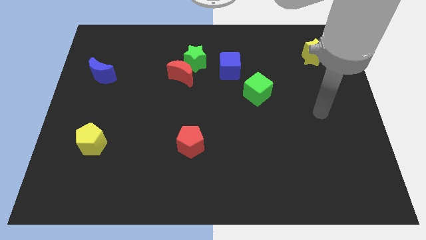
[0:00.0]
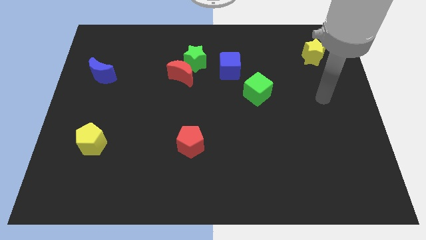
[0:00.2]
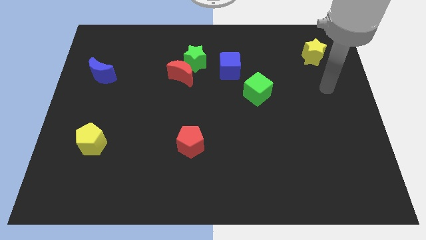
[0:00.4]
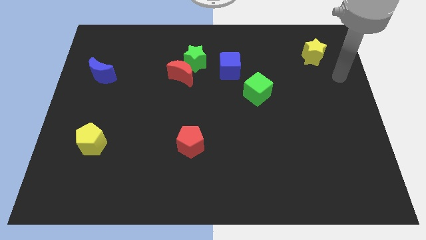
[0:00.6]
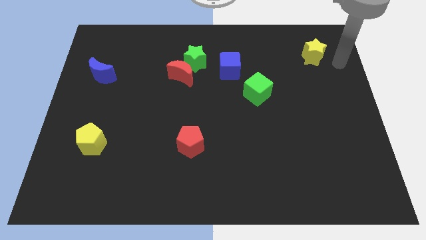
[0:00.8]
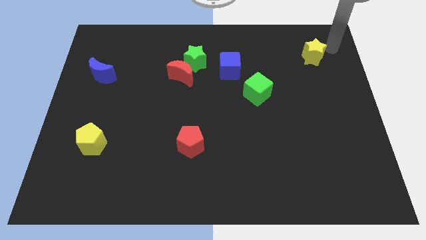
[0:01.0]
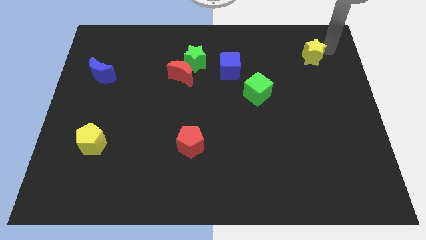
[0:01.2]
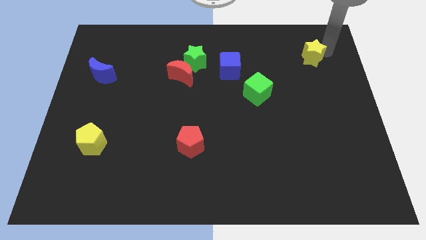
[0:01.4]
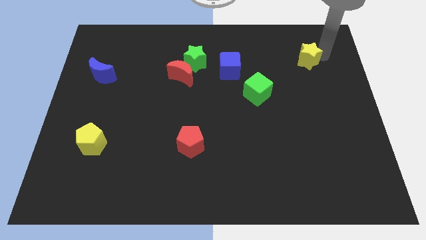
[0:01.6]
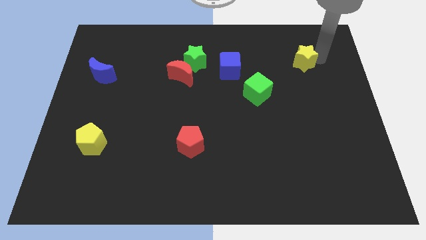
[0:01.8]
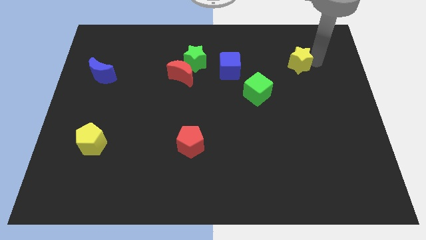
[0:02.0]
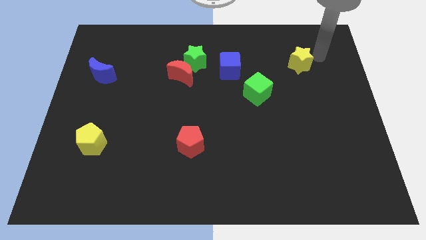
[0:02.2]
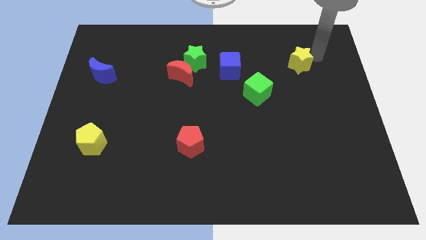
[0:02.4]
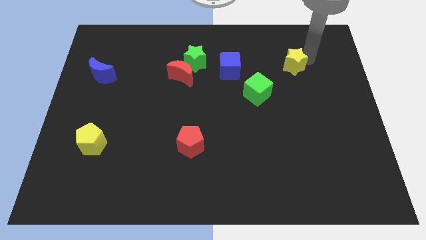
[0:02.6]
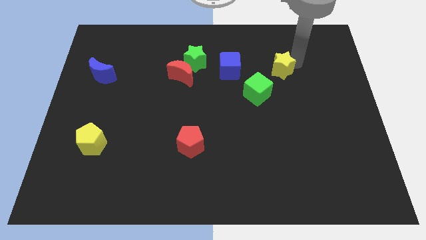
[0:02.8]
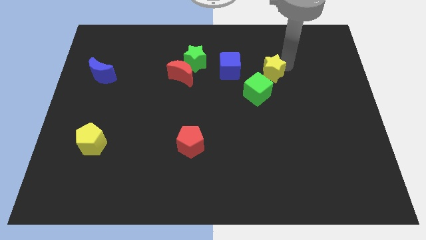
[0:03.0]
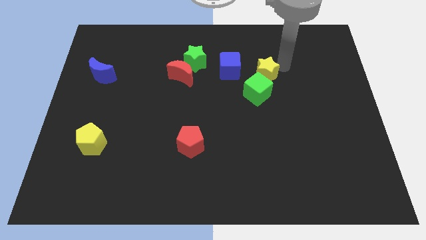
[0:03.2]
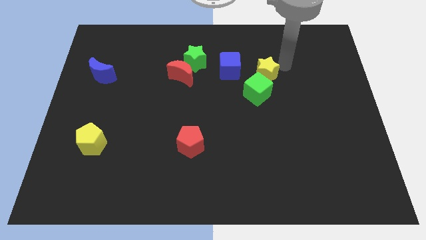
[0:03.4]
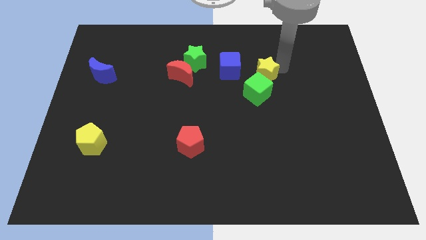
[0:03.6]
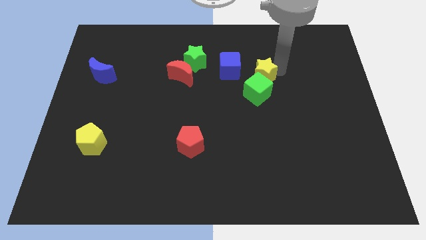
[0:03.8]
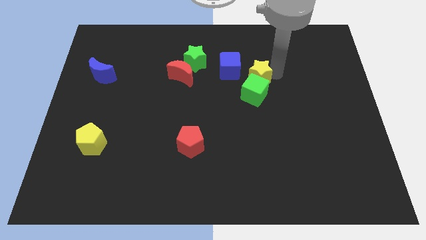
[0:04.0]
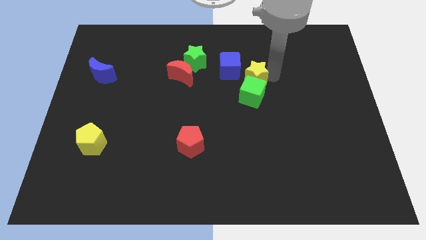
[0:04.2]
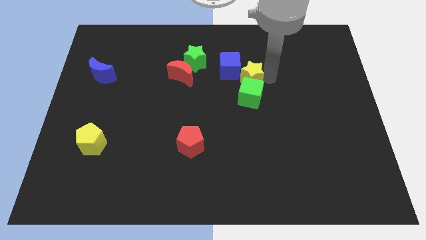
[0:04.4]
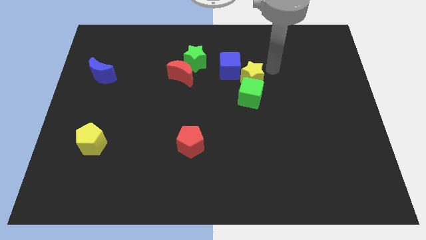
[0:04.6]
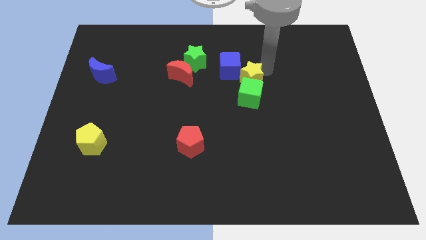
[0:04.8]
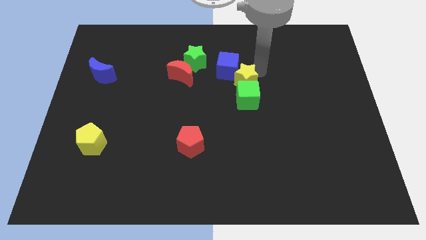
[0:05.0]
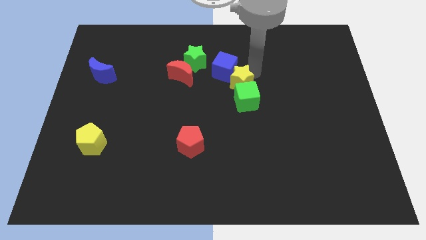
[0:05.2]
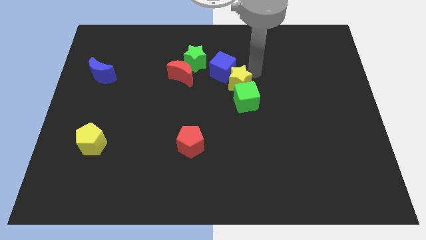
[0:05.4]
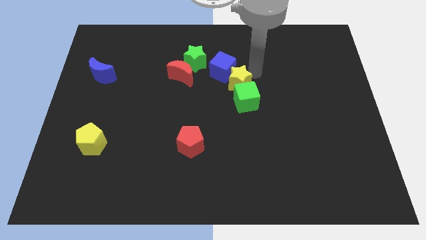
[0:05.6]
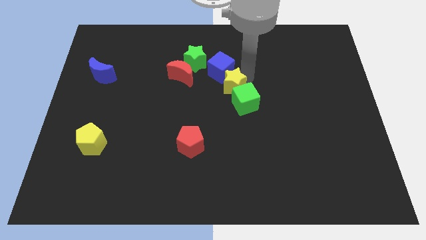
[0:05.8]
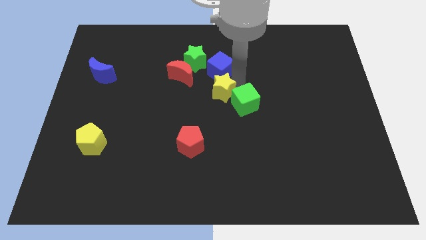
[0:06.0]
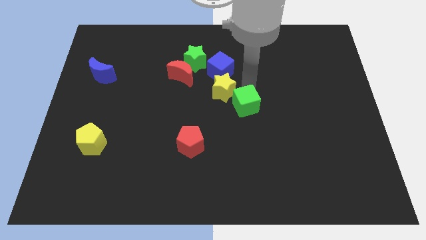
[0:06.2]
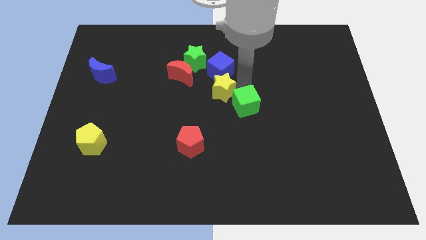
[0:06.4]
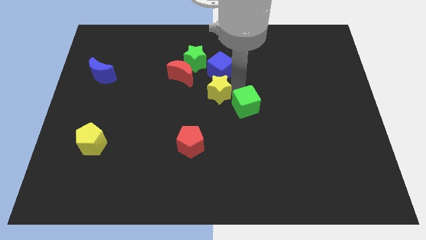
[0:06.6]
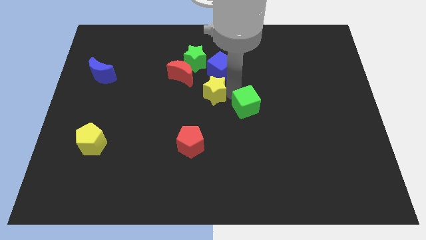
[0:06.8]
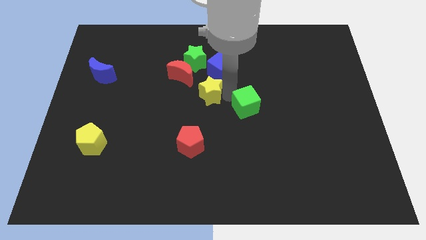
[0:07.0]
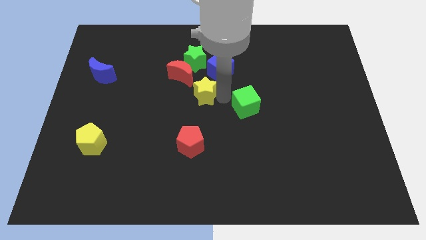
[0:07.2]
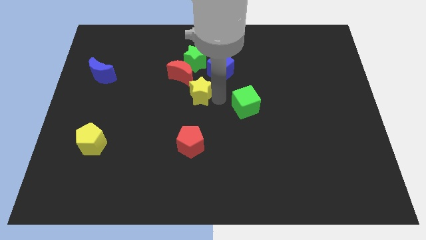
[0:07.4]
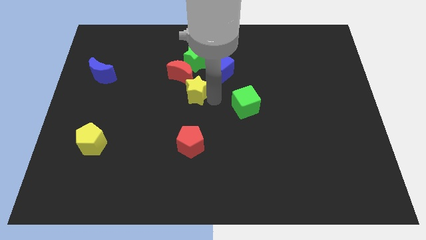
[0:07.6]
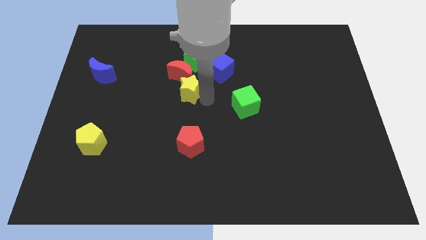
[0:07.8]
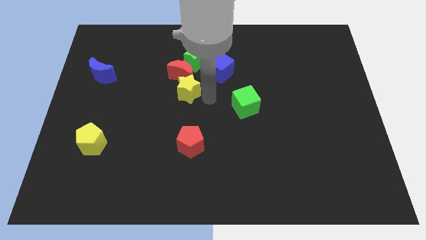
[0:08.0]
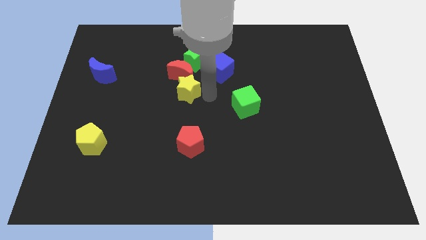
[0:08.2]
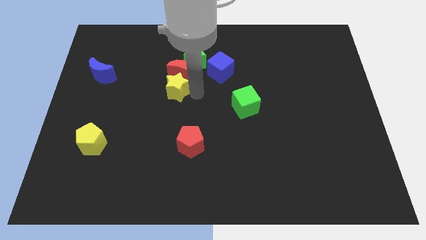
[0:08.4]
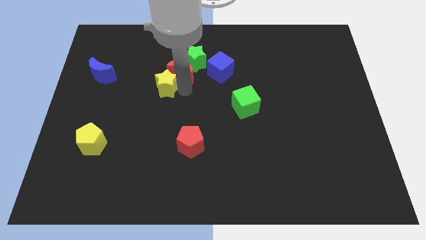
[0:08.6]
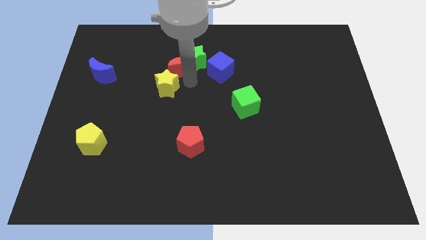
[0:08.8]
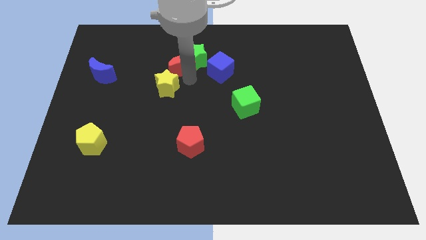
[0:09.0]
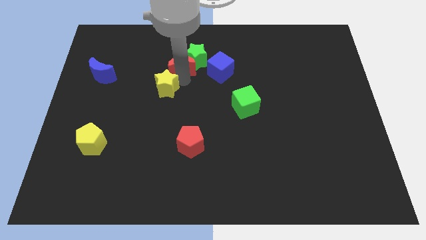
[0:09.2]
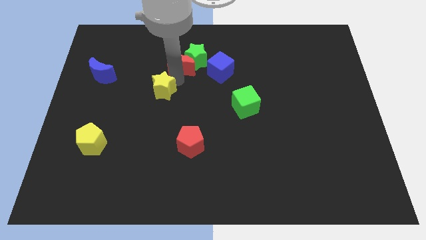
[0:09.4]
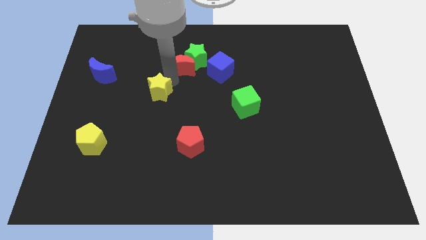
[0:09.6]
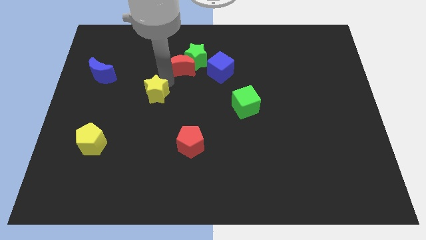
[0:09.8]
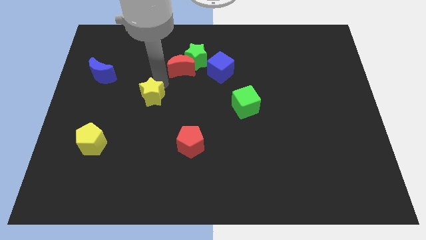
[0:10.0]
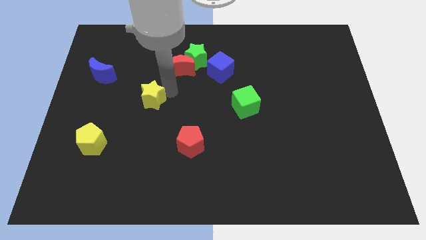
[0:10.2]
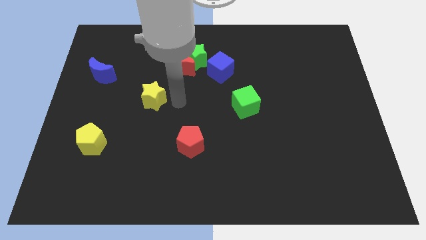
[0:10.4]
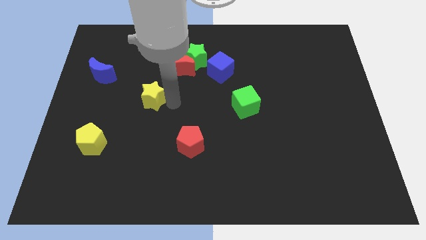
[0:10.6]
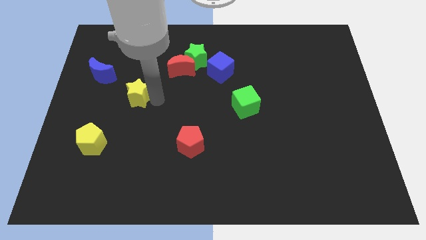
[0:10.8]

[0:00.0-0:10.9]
slide the yellow star diagonally down and to the right of the blue moon

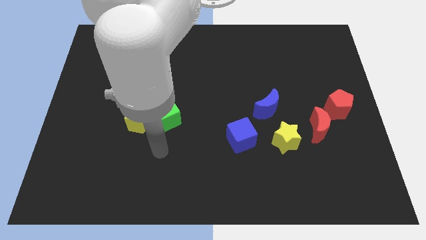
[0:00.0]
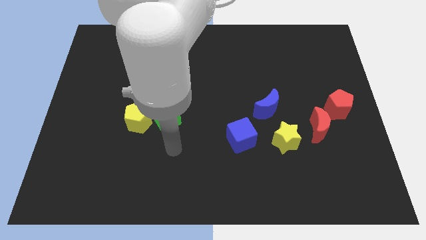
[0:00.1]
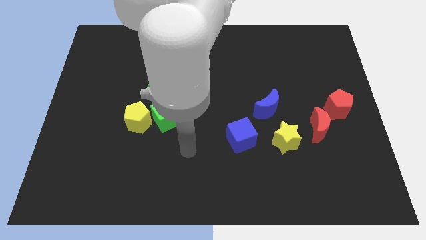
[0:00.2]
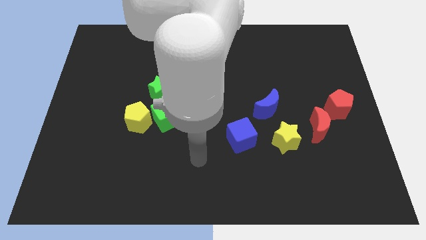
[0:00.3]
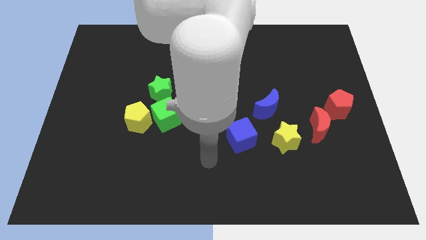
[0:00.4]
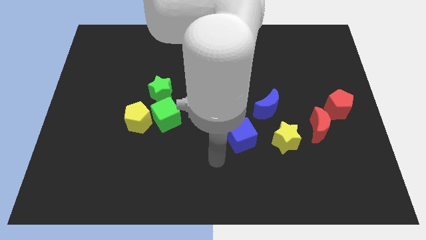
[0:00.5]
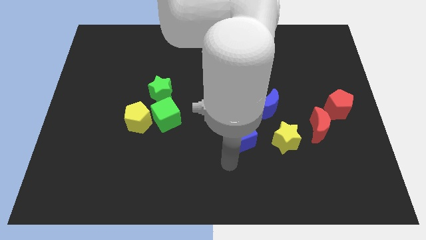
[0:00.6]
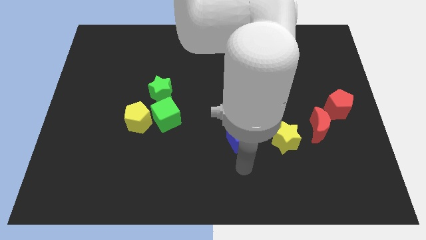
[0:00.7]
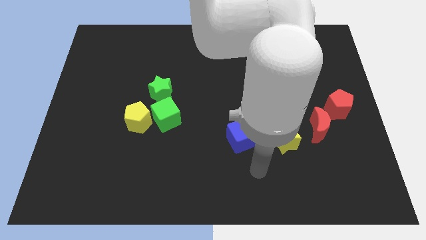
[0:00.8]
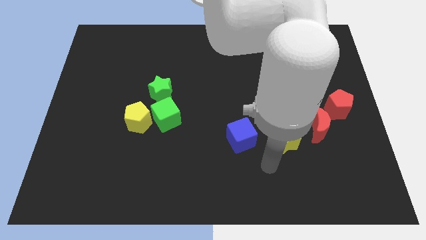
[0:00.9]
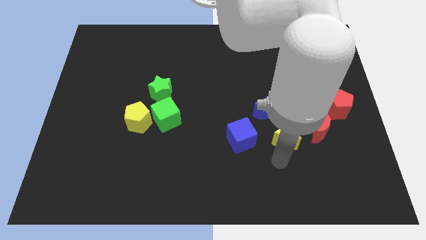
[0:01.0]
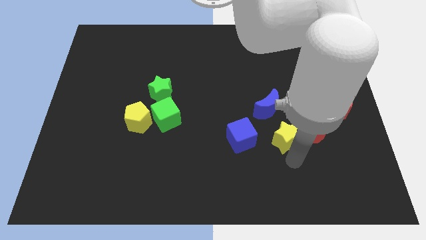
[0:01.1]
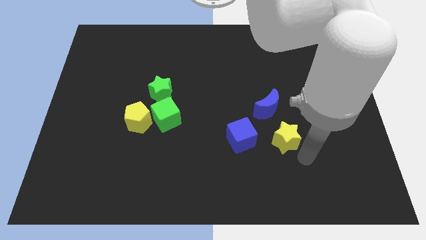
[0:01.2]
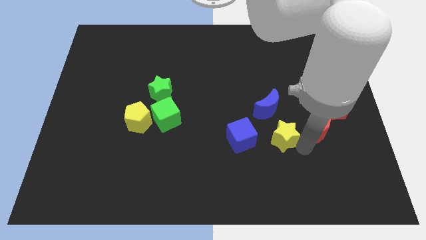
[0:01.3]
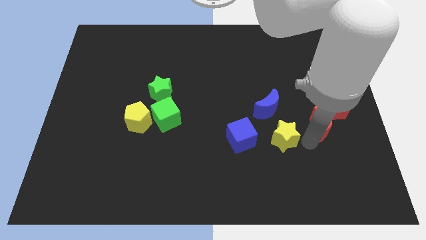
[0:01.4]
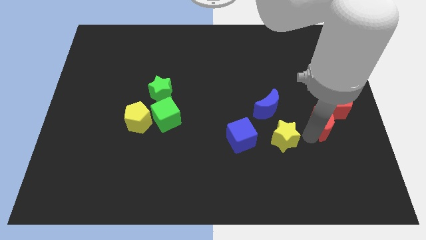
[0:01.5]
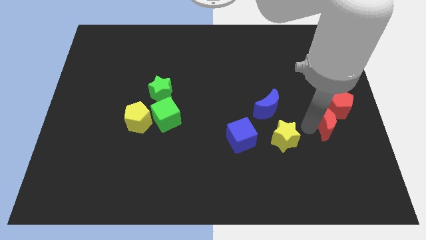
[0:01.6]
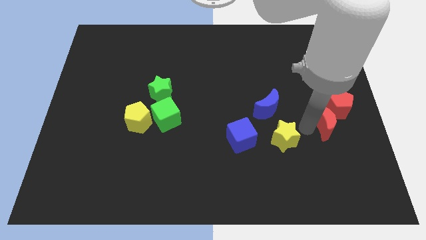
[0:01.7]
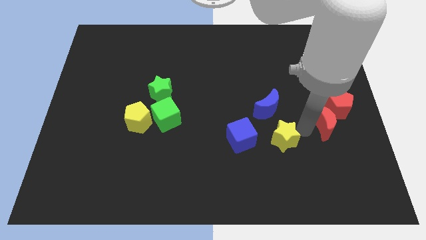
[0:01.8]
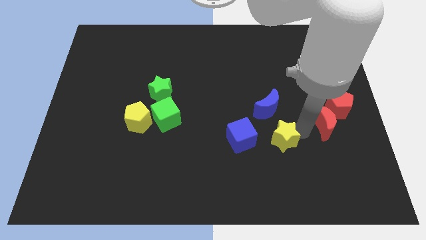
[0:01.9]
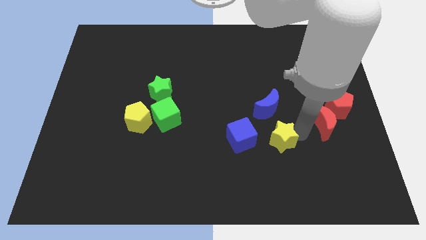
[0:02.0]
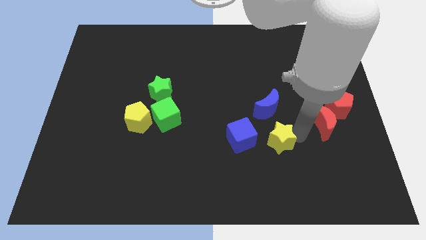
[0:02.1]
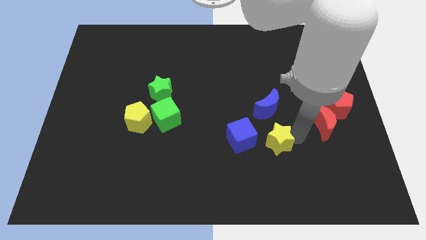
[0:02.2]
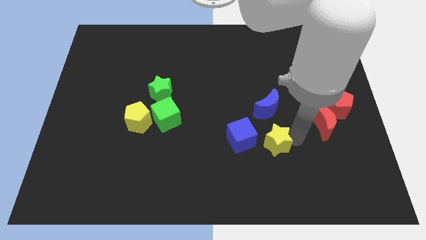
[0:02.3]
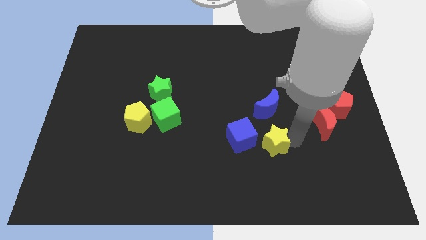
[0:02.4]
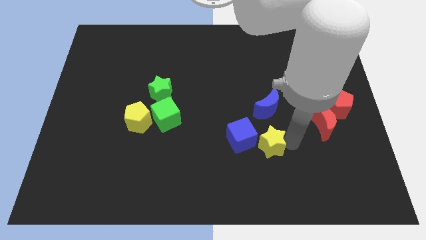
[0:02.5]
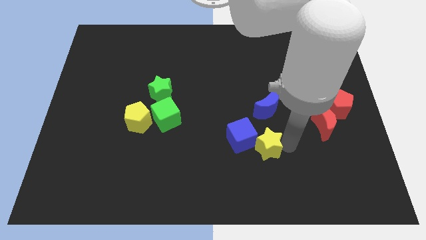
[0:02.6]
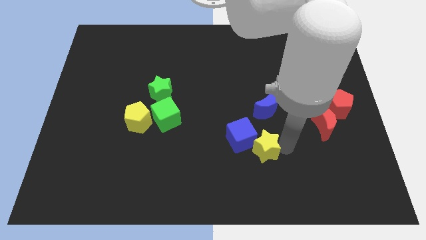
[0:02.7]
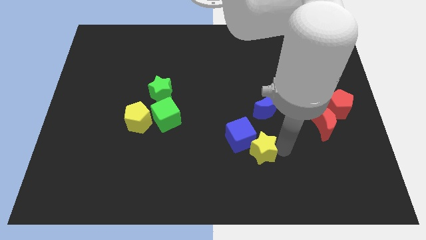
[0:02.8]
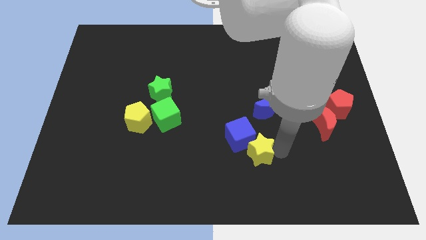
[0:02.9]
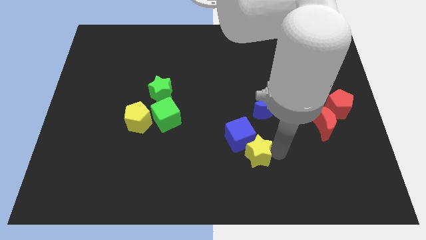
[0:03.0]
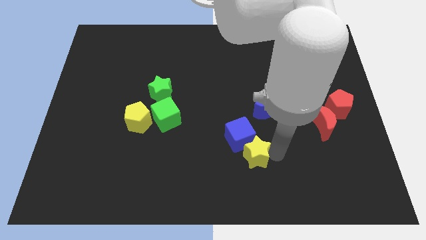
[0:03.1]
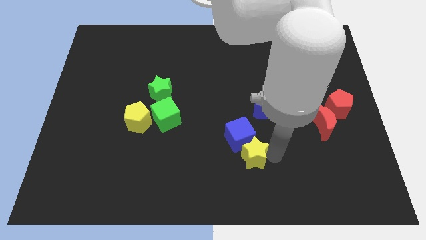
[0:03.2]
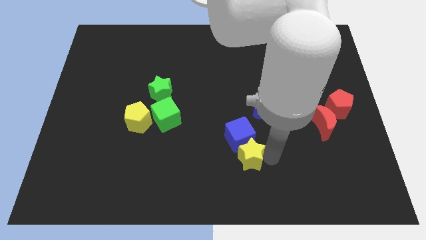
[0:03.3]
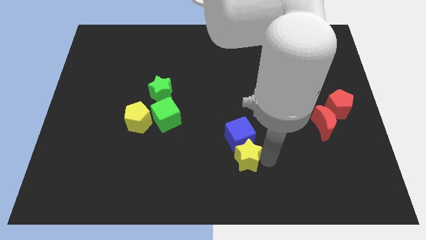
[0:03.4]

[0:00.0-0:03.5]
put the yellow star to the bottom left of the blue cube
